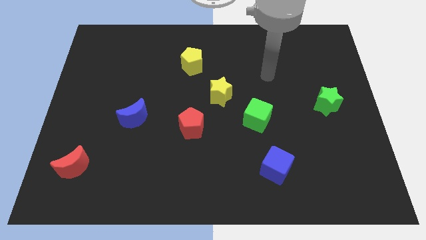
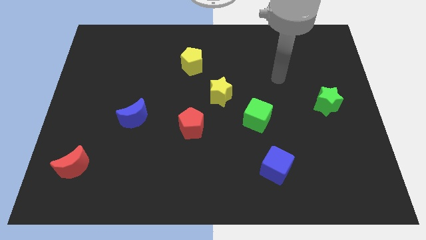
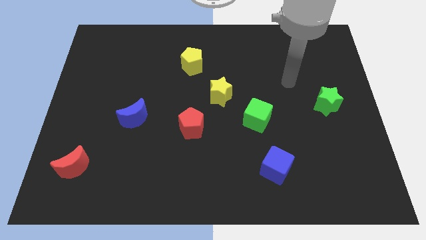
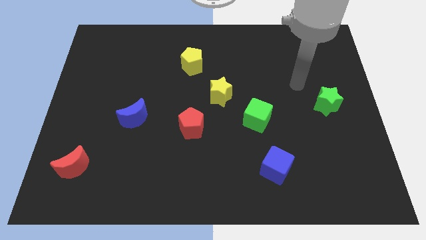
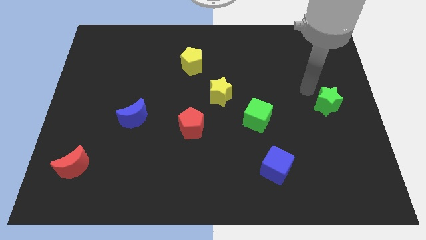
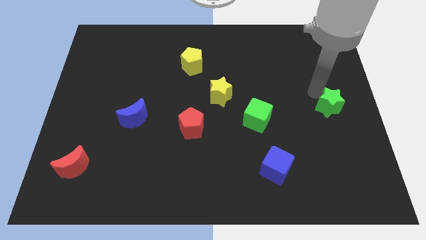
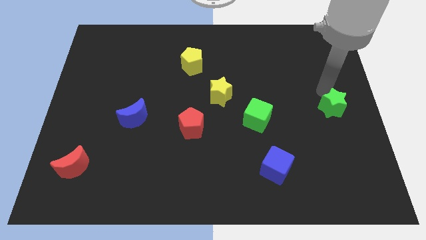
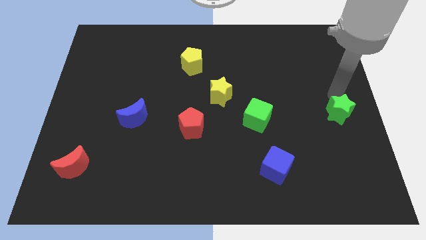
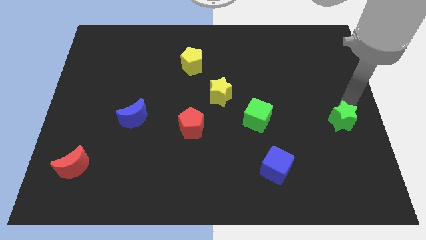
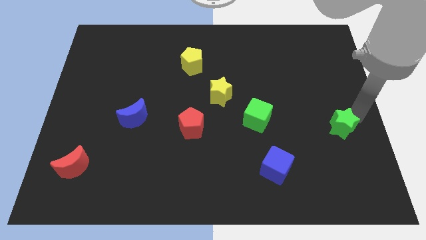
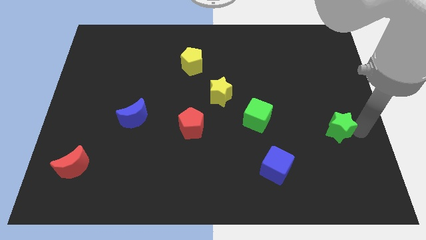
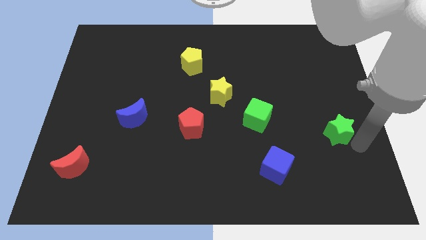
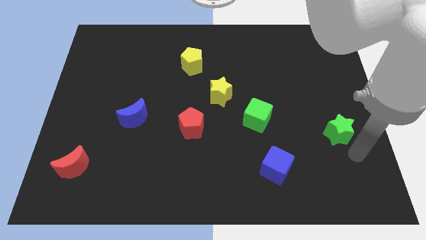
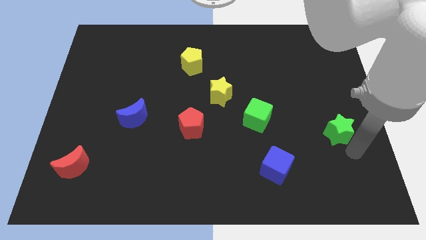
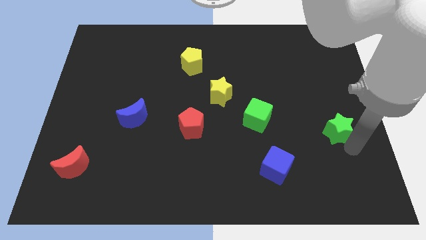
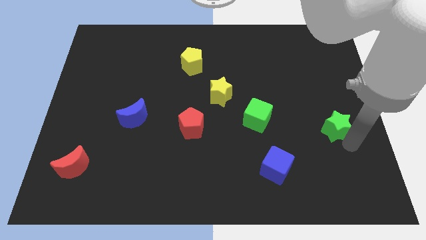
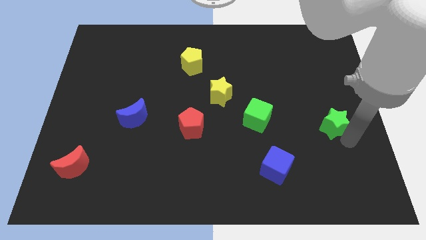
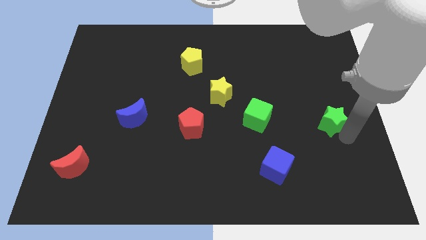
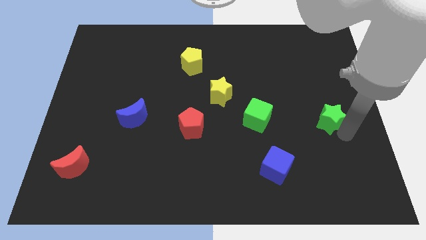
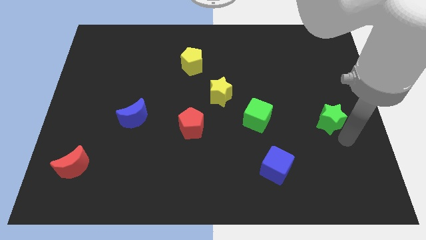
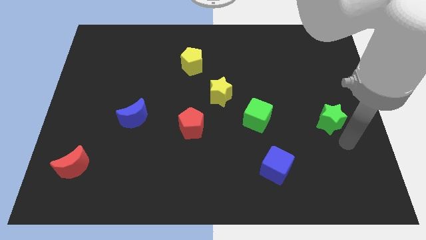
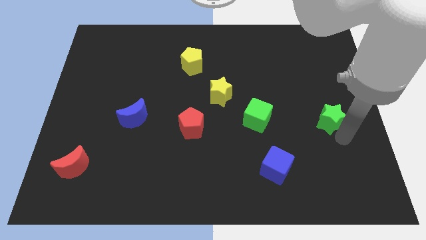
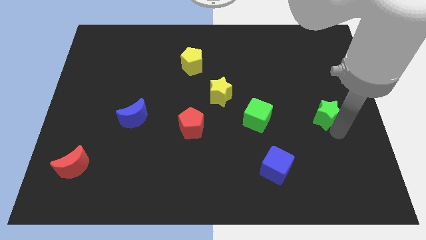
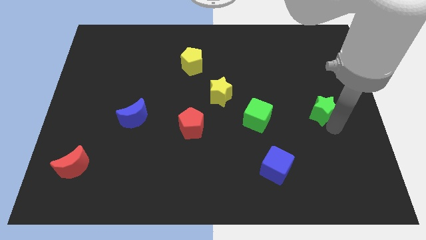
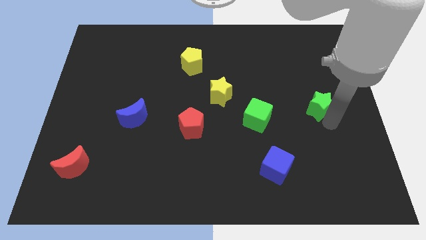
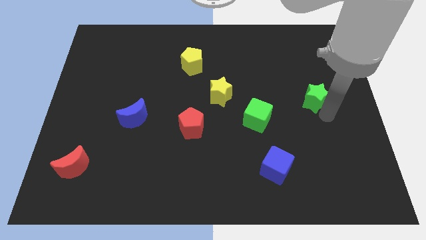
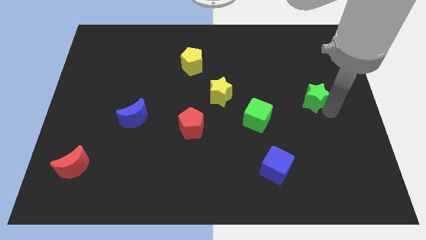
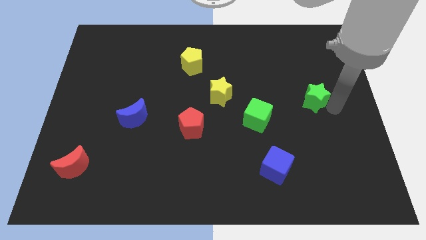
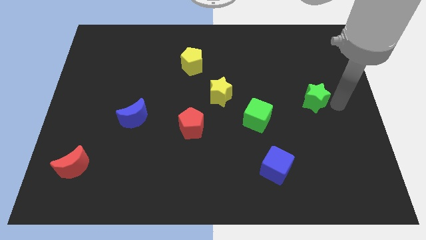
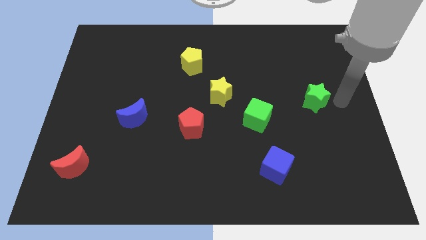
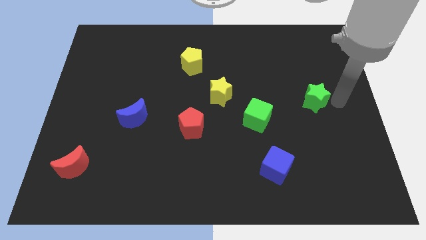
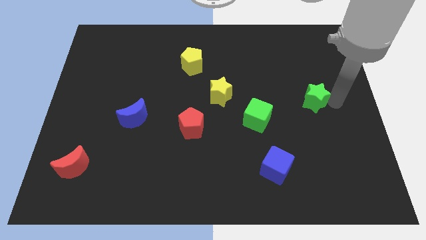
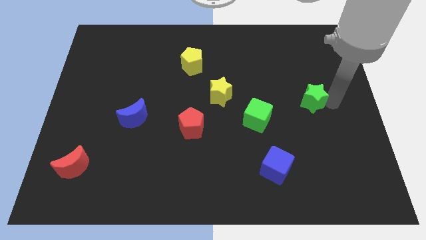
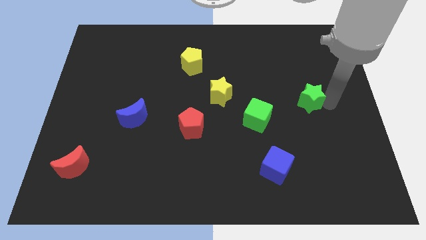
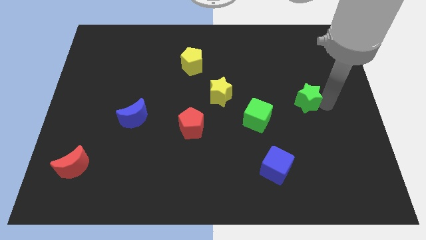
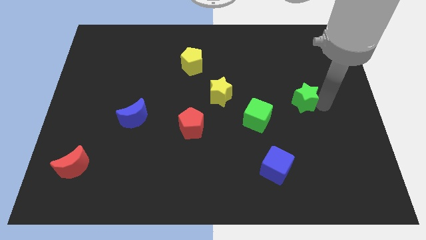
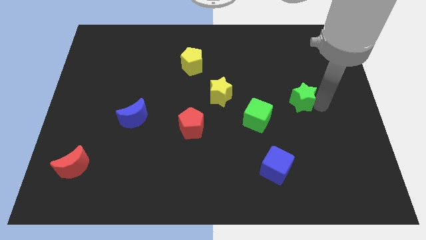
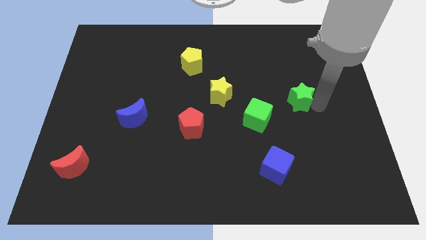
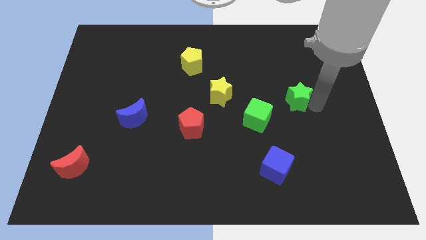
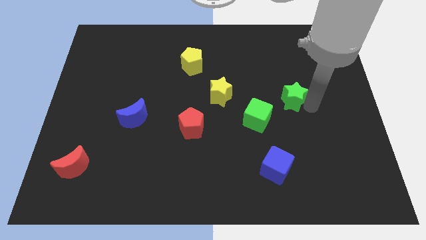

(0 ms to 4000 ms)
slightly push the green star to the left

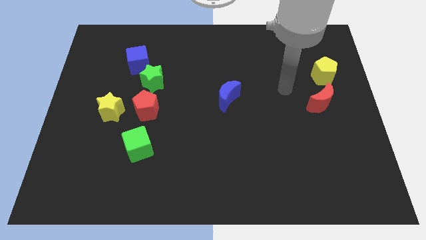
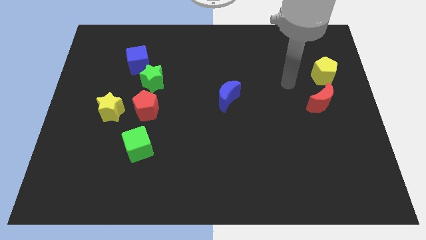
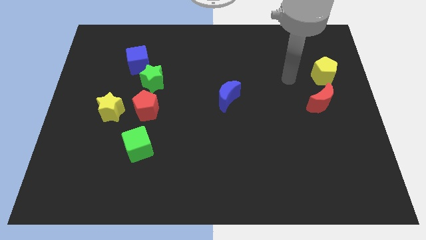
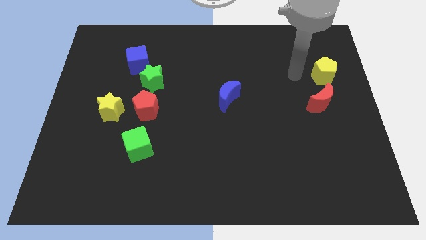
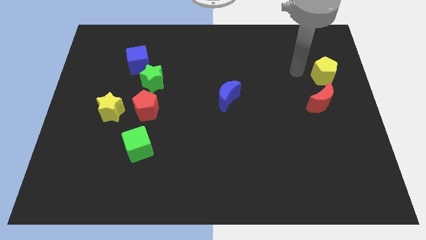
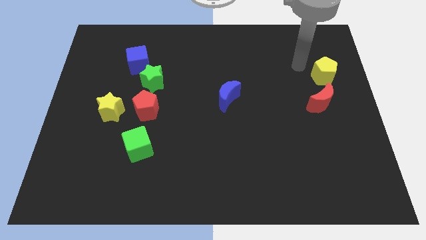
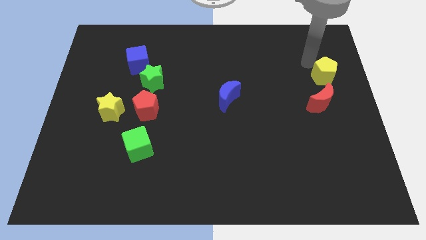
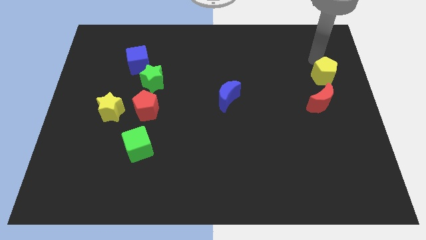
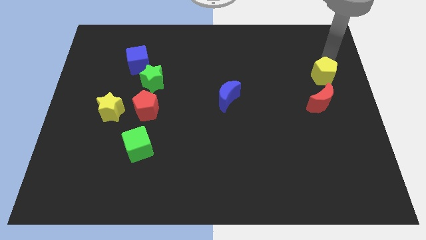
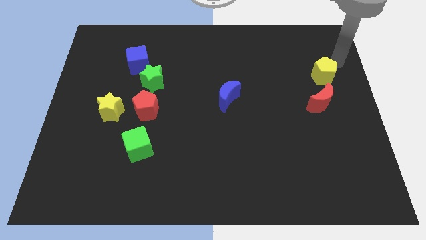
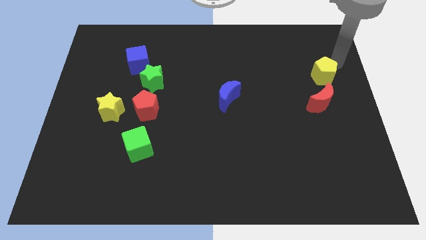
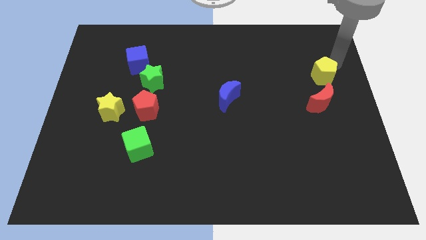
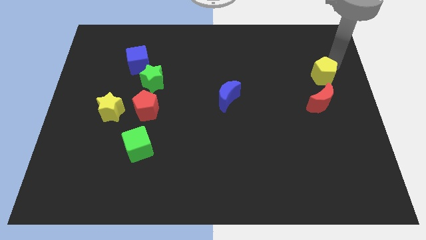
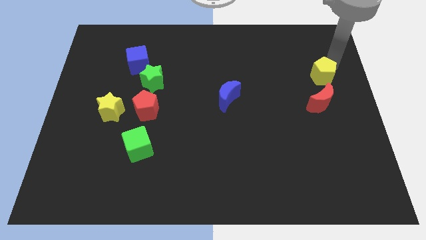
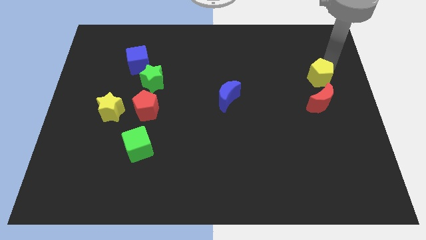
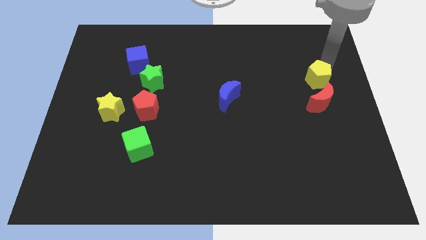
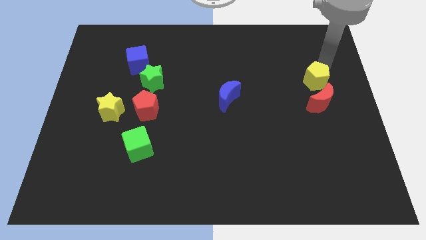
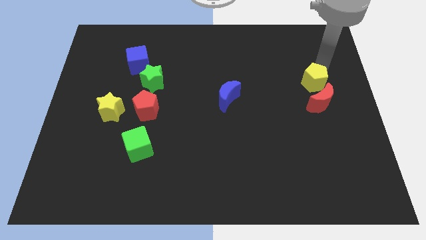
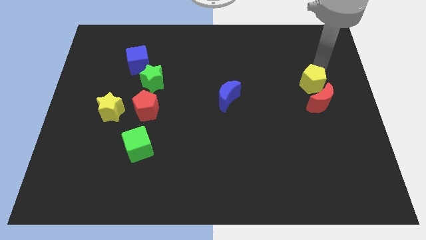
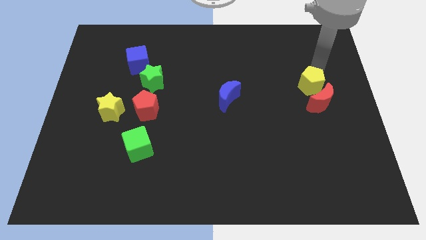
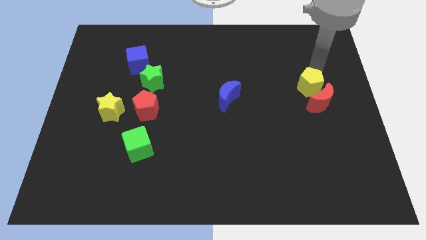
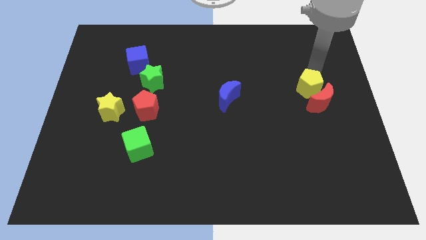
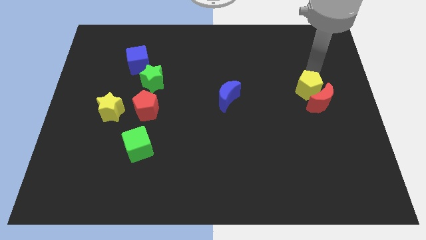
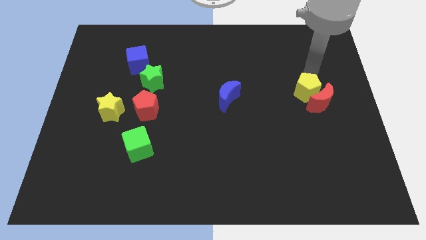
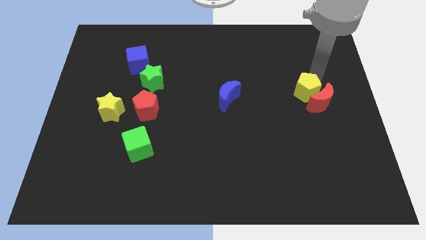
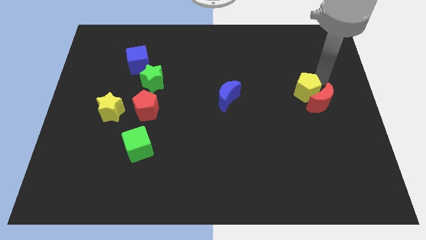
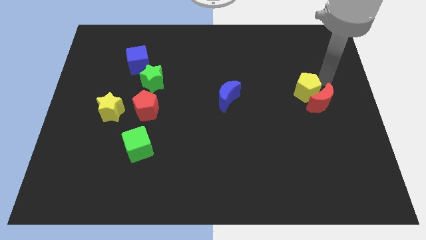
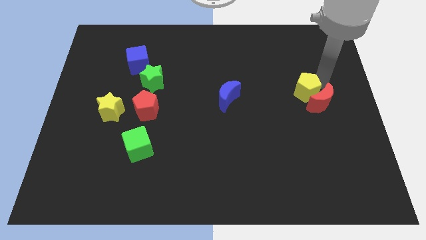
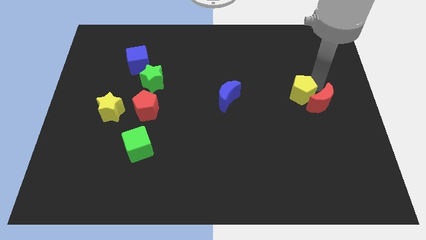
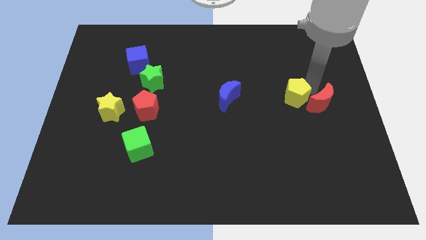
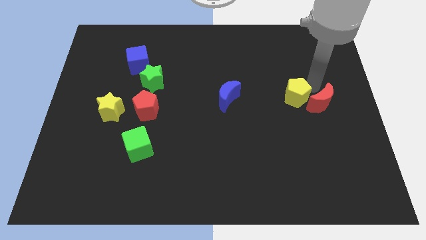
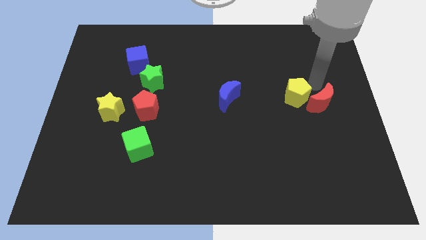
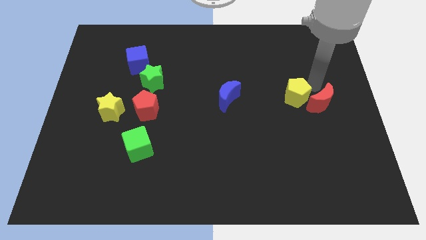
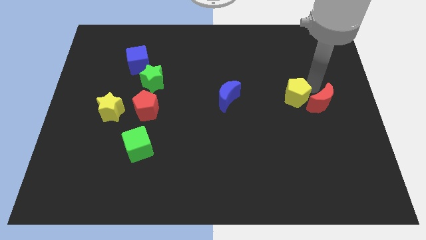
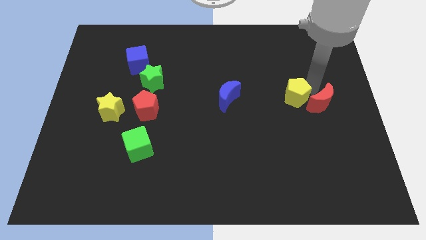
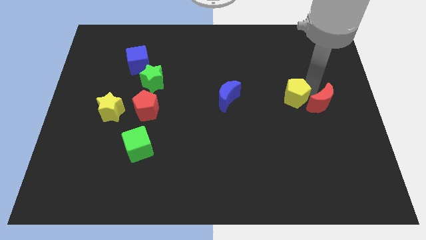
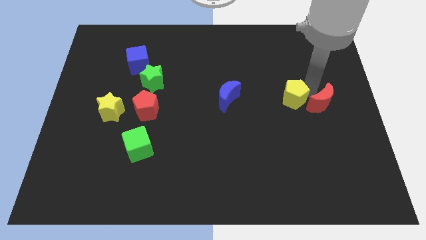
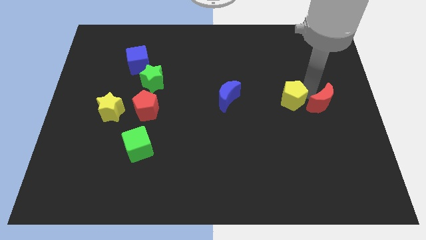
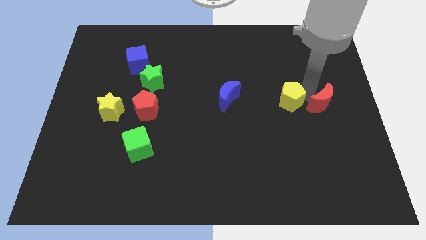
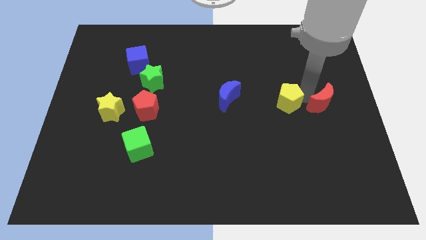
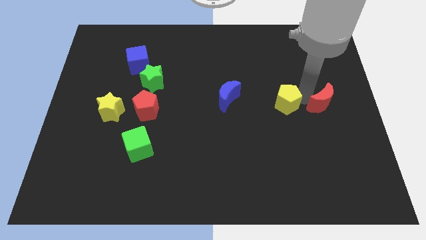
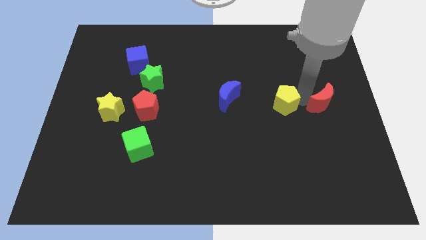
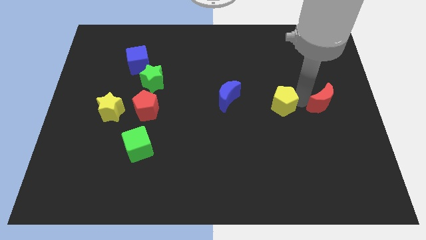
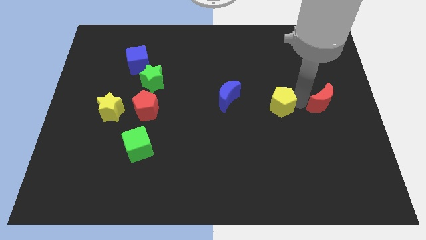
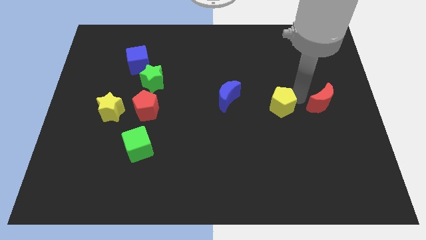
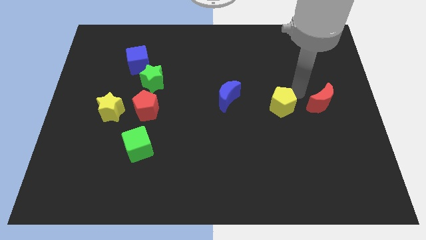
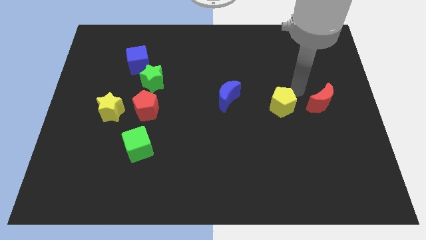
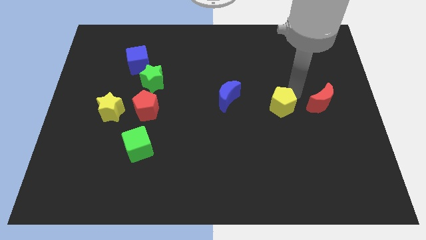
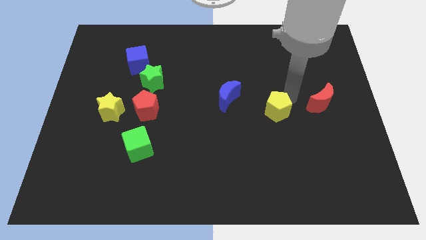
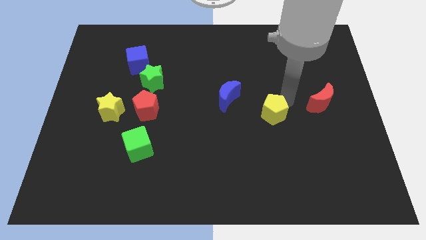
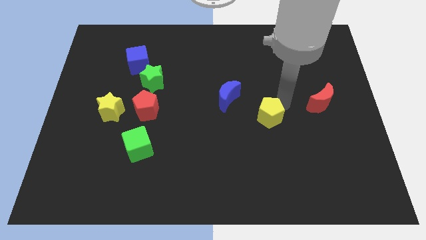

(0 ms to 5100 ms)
move the yellow pentagon diagonally down and to the left
